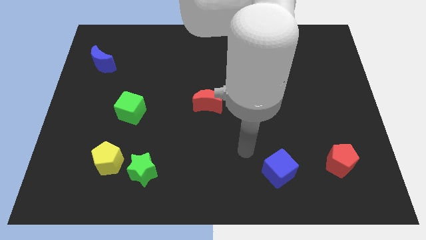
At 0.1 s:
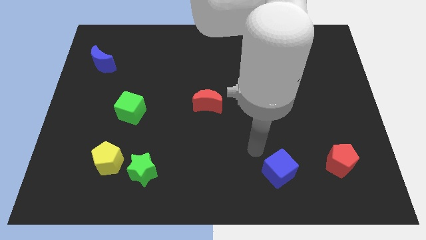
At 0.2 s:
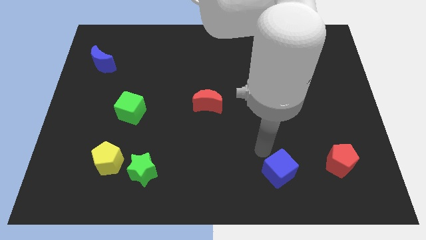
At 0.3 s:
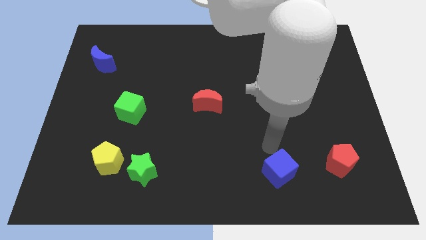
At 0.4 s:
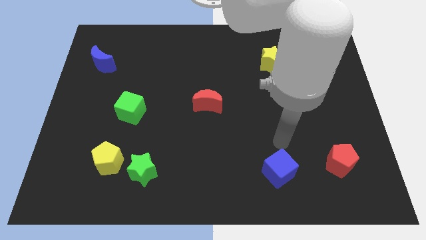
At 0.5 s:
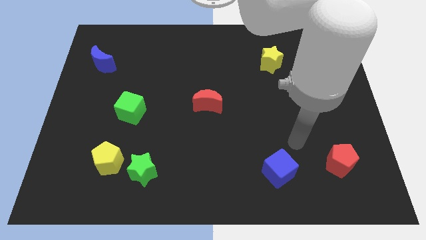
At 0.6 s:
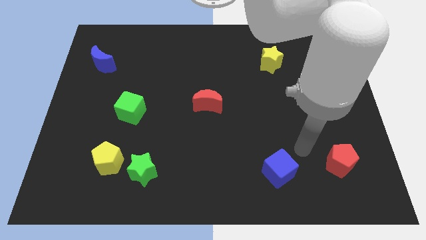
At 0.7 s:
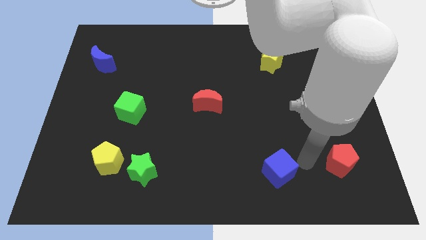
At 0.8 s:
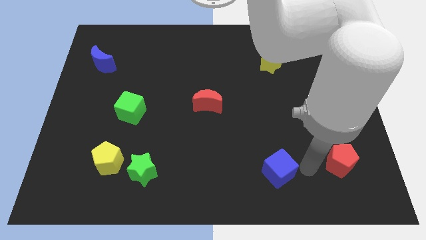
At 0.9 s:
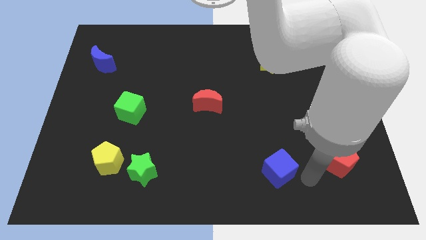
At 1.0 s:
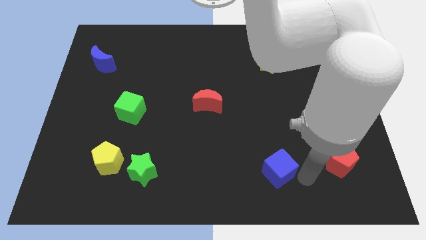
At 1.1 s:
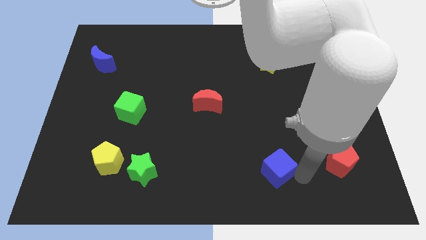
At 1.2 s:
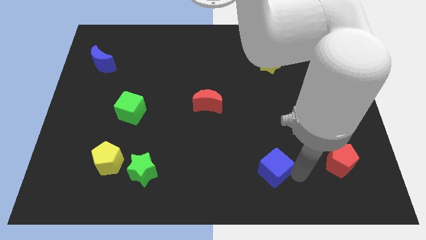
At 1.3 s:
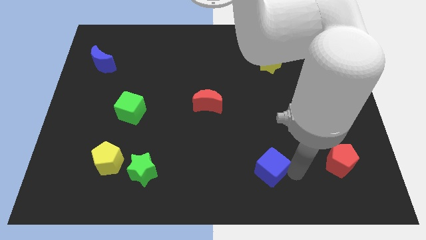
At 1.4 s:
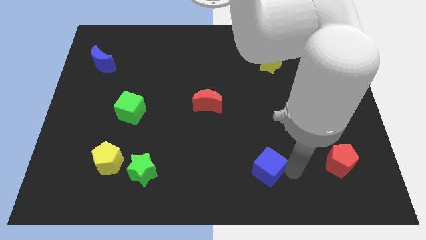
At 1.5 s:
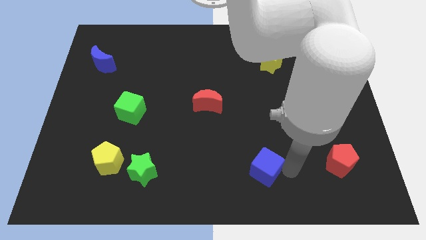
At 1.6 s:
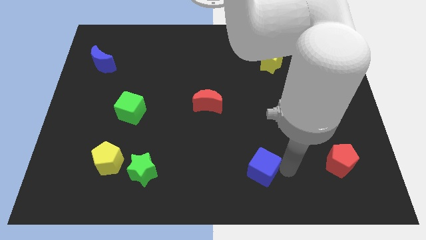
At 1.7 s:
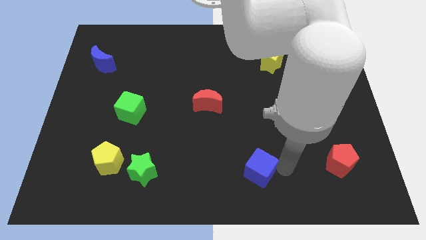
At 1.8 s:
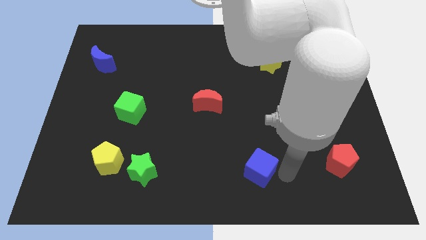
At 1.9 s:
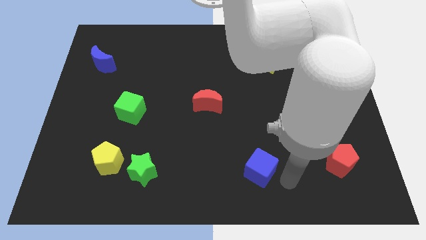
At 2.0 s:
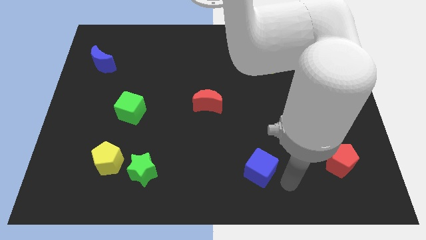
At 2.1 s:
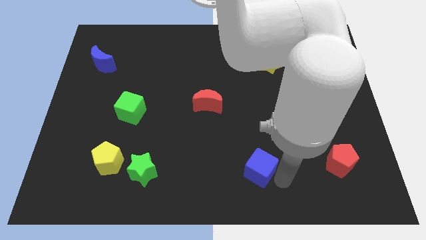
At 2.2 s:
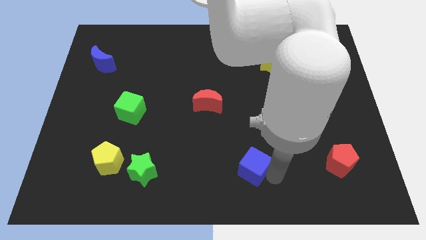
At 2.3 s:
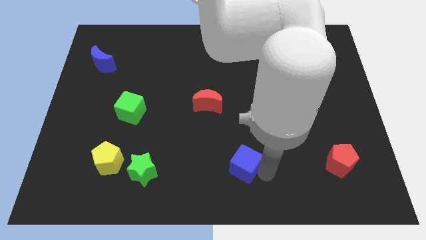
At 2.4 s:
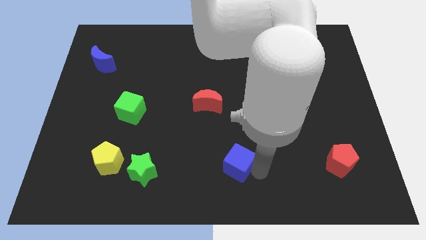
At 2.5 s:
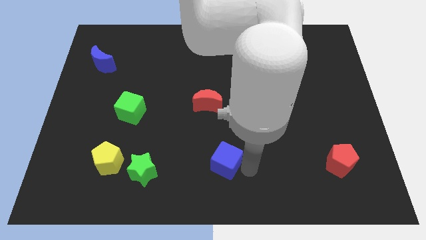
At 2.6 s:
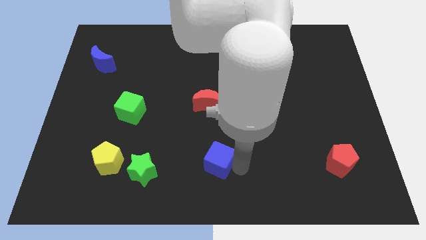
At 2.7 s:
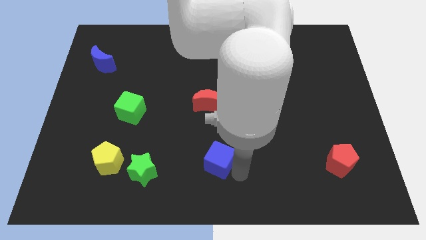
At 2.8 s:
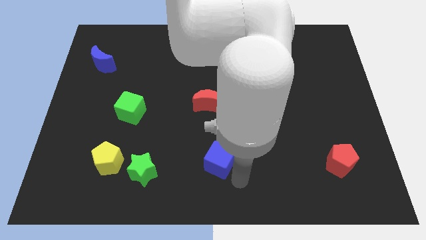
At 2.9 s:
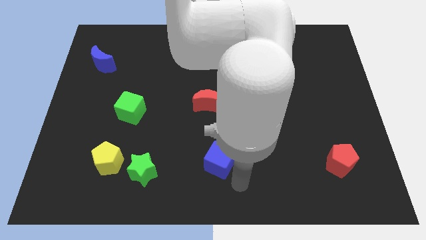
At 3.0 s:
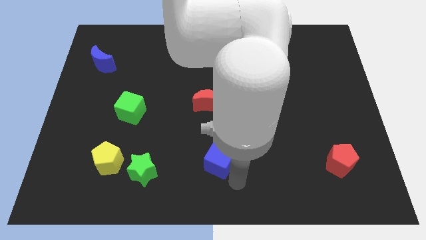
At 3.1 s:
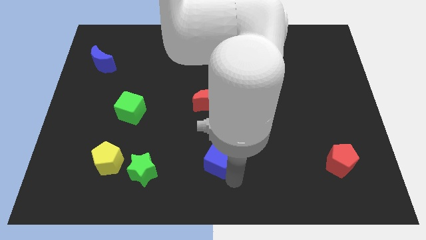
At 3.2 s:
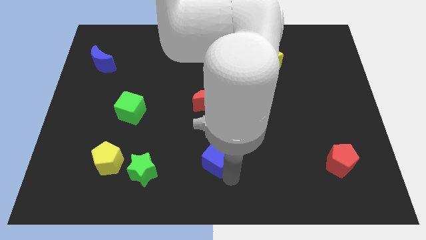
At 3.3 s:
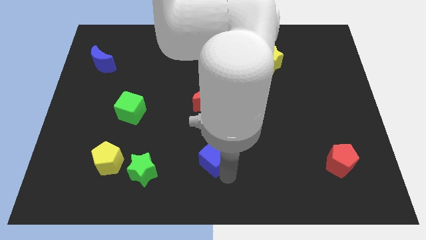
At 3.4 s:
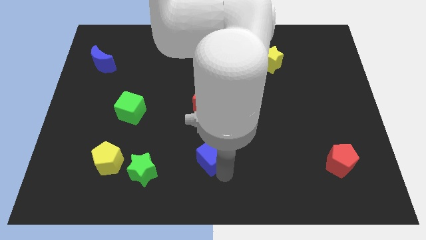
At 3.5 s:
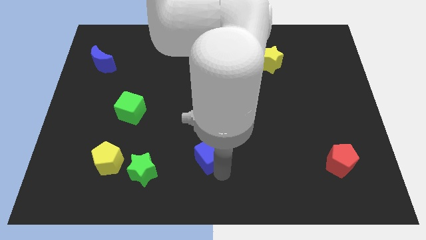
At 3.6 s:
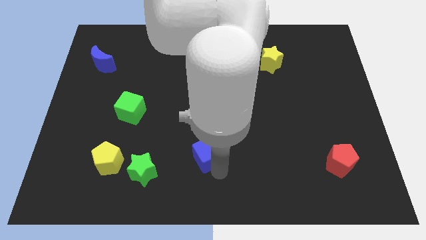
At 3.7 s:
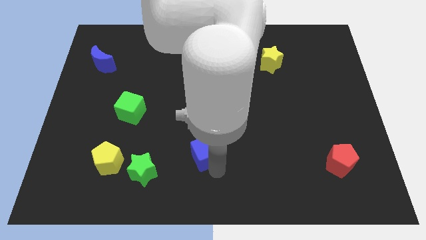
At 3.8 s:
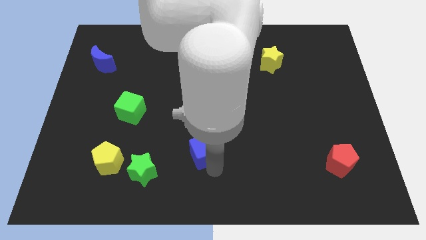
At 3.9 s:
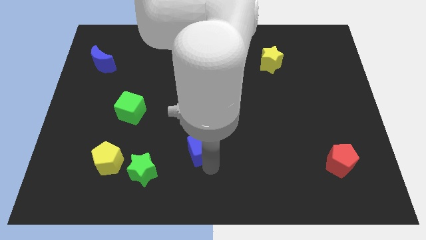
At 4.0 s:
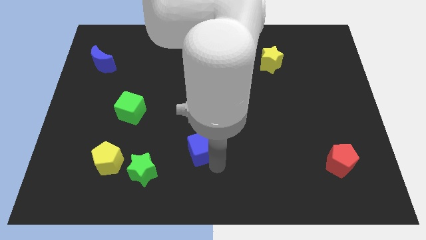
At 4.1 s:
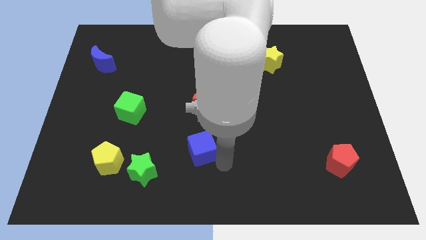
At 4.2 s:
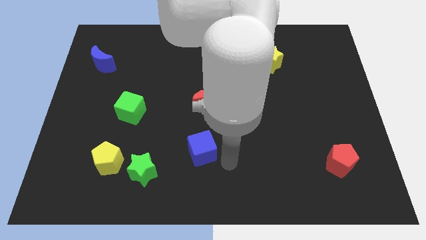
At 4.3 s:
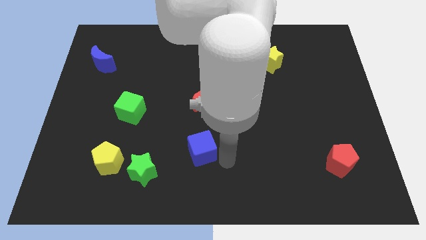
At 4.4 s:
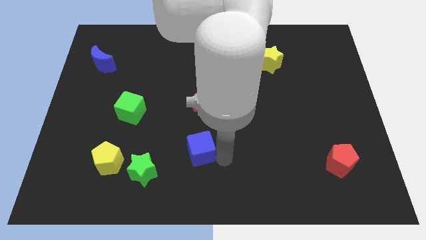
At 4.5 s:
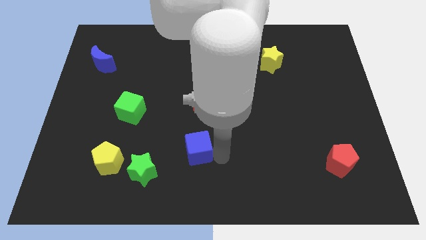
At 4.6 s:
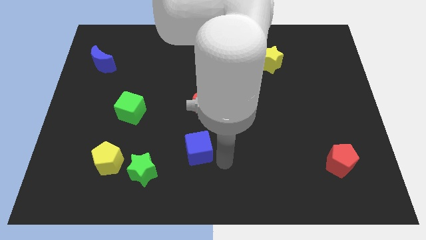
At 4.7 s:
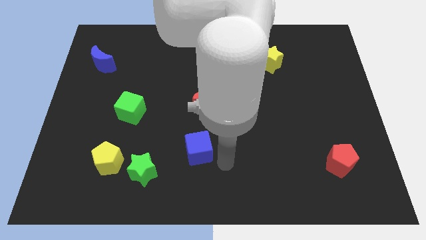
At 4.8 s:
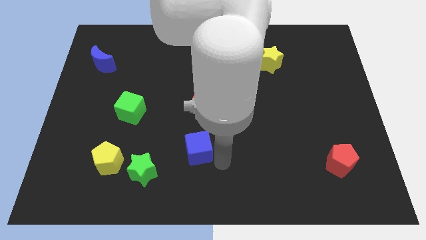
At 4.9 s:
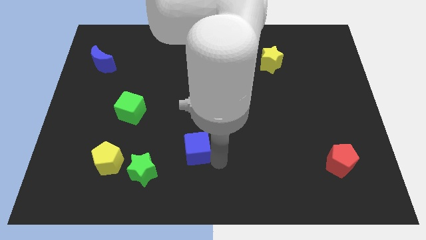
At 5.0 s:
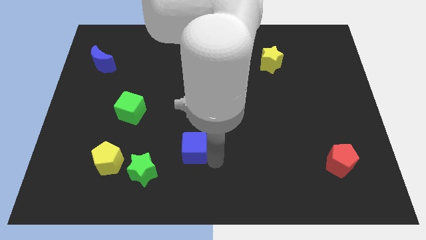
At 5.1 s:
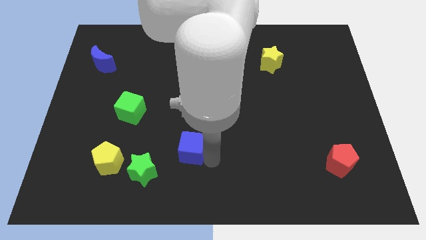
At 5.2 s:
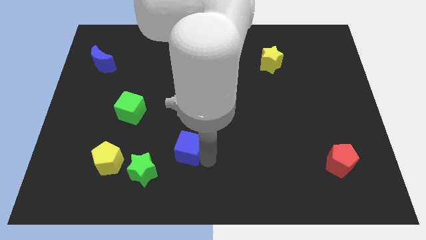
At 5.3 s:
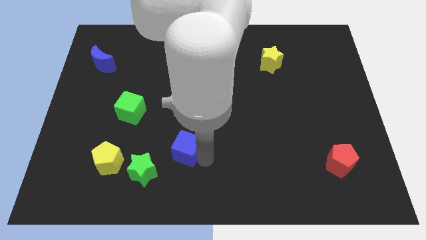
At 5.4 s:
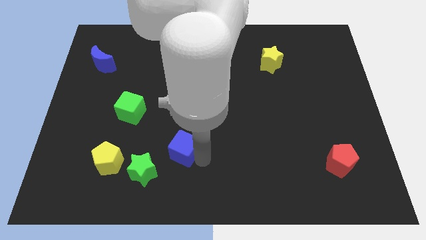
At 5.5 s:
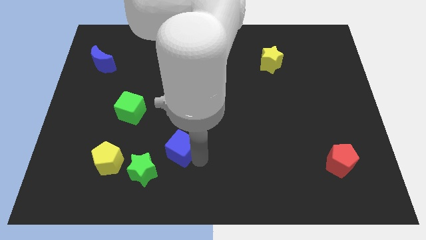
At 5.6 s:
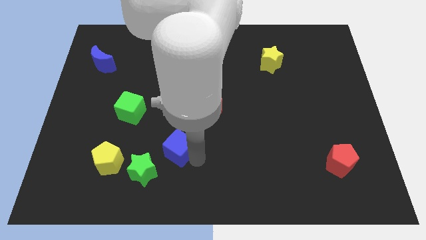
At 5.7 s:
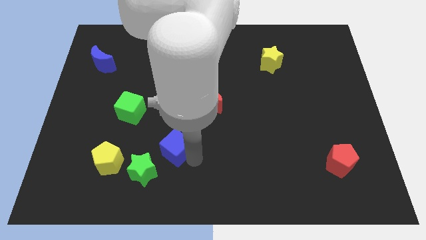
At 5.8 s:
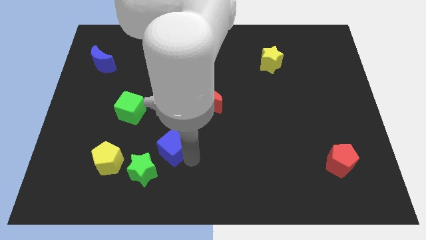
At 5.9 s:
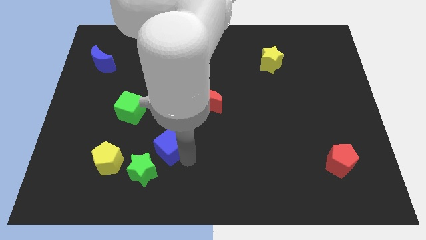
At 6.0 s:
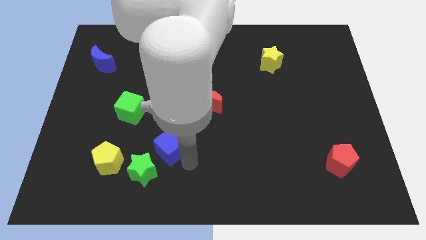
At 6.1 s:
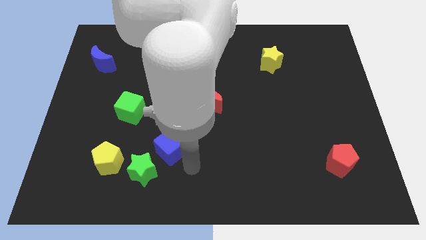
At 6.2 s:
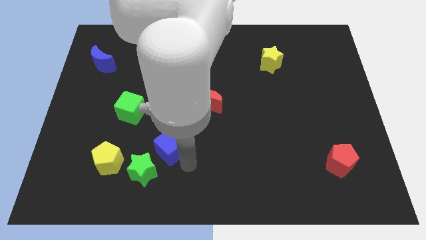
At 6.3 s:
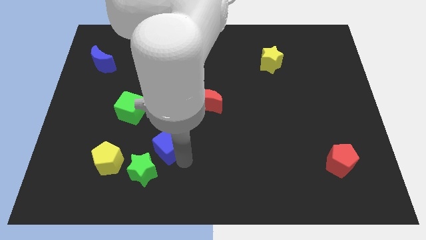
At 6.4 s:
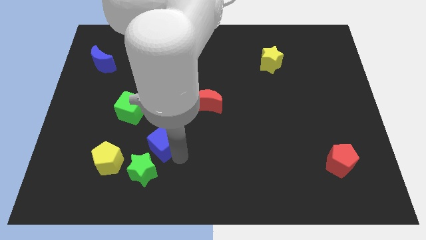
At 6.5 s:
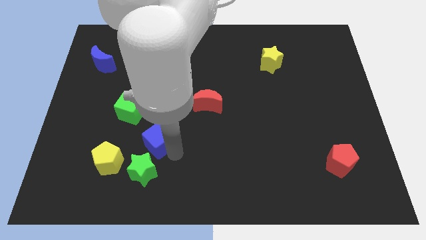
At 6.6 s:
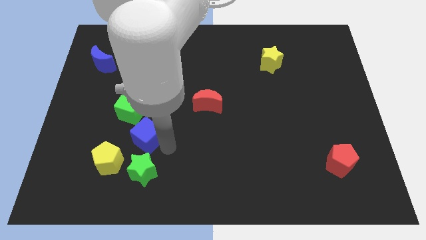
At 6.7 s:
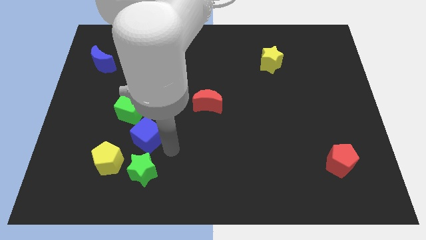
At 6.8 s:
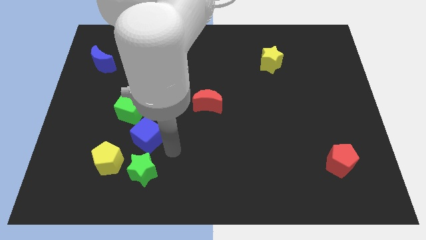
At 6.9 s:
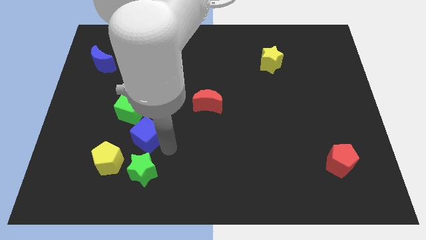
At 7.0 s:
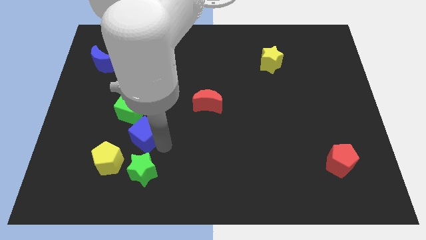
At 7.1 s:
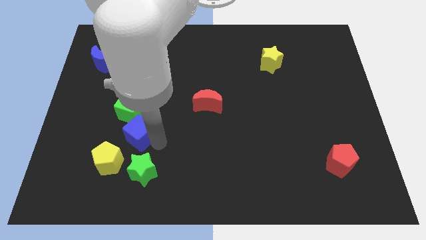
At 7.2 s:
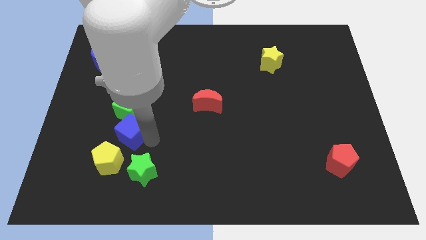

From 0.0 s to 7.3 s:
put the blue cube above the yellow pentagon
